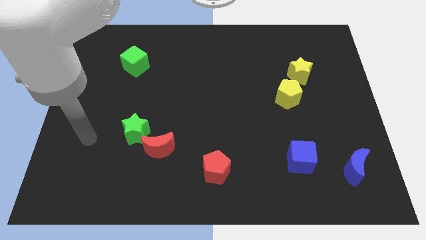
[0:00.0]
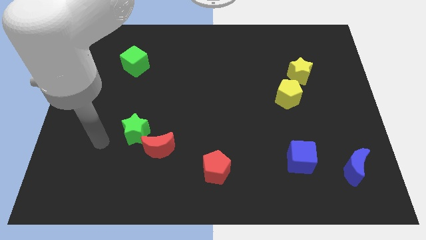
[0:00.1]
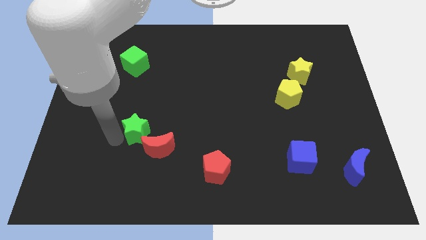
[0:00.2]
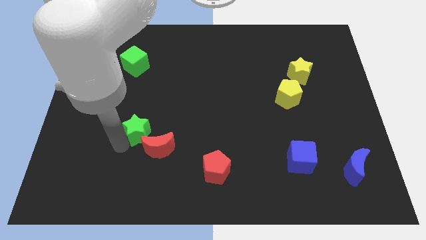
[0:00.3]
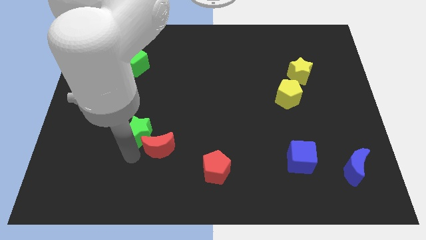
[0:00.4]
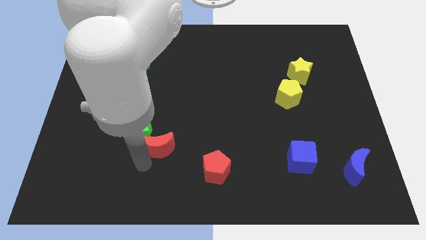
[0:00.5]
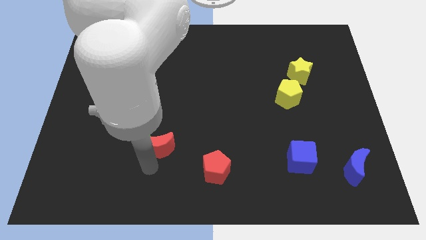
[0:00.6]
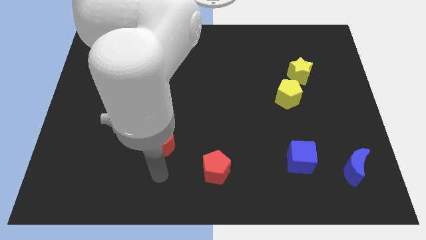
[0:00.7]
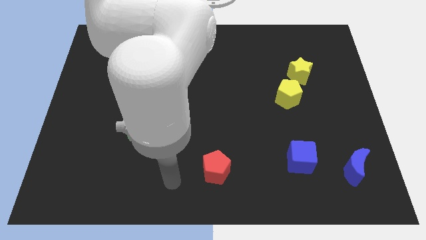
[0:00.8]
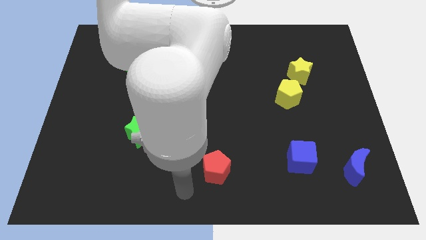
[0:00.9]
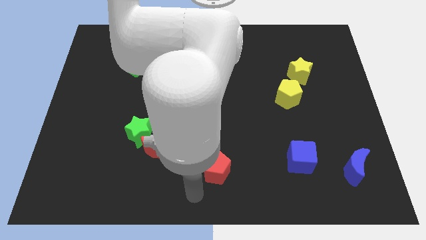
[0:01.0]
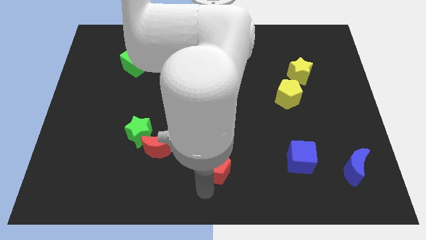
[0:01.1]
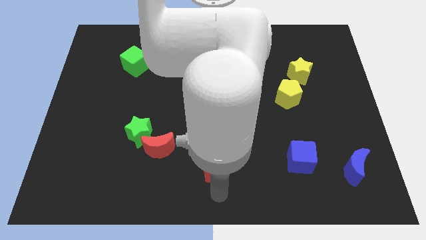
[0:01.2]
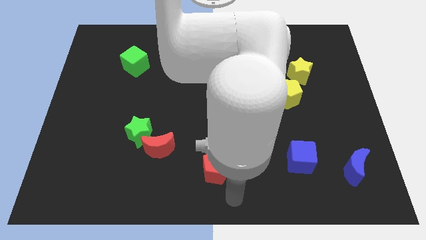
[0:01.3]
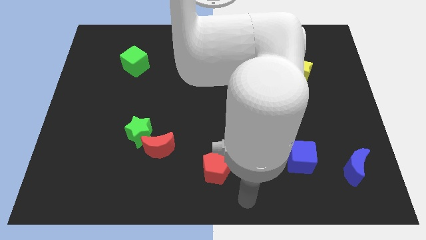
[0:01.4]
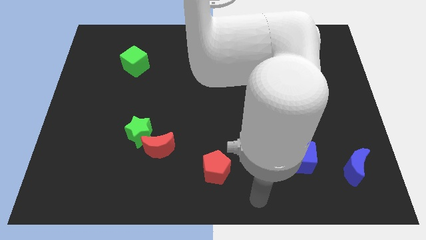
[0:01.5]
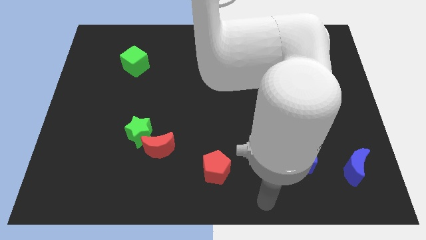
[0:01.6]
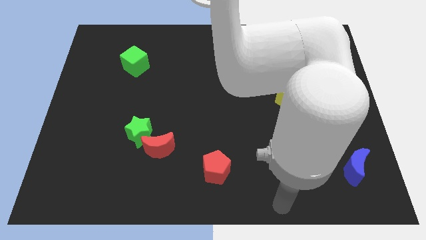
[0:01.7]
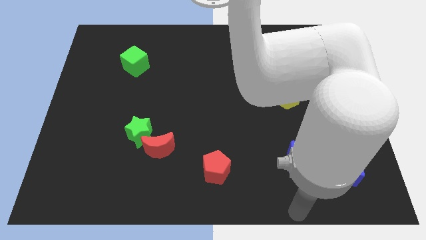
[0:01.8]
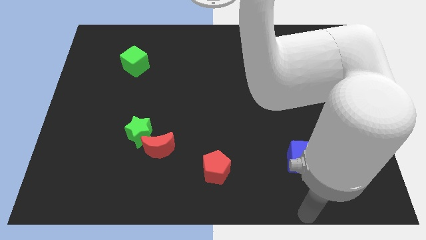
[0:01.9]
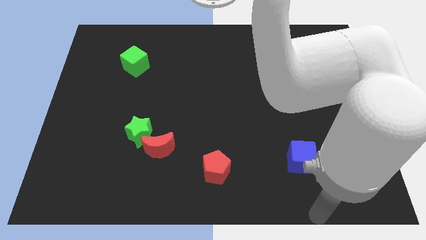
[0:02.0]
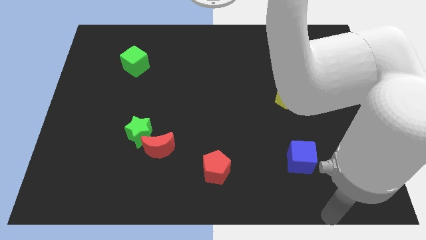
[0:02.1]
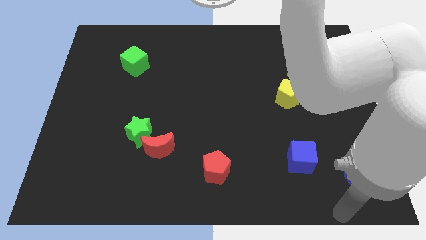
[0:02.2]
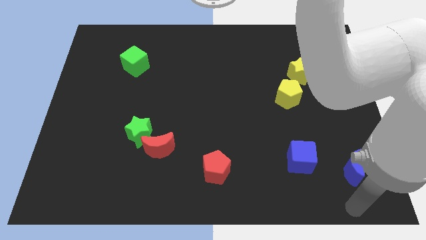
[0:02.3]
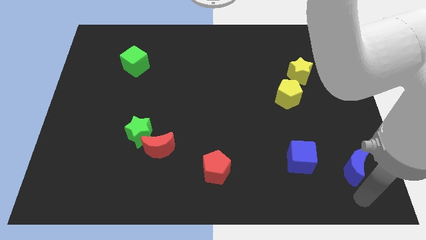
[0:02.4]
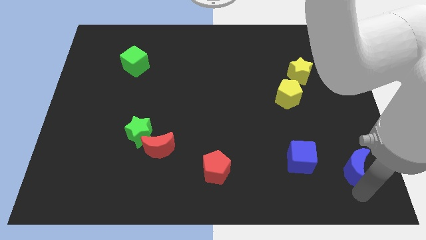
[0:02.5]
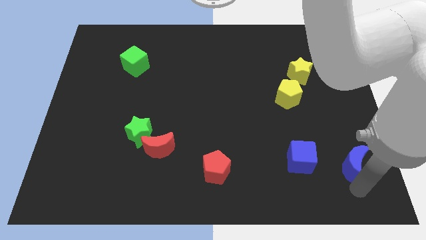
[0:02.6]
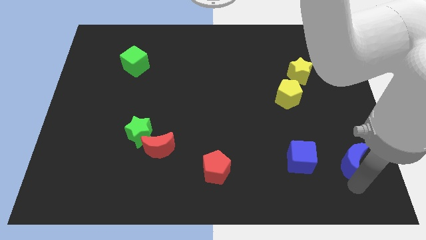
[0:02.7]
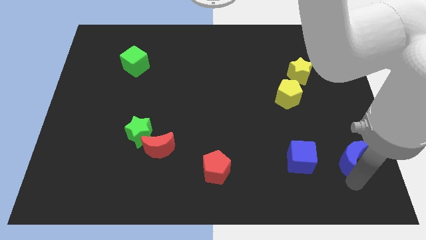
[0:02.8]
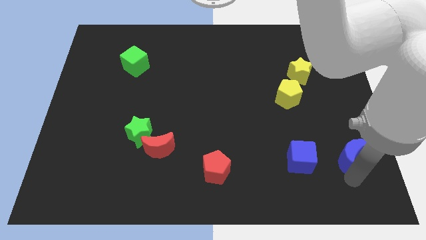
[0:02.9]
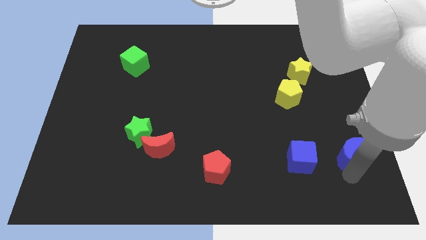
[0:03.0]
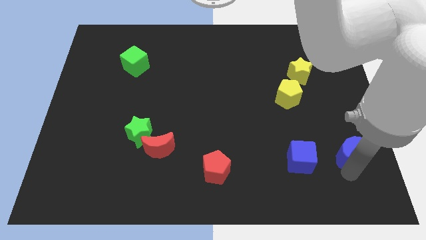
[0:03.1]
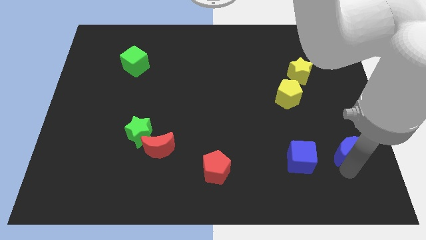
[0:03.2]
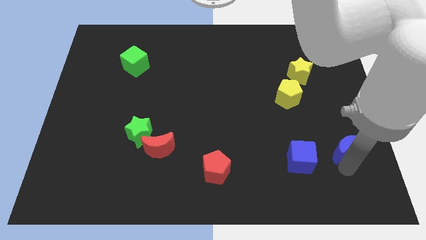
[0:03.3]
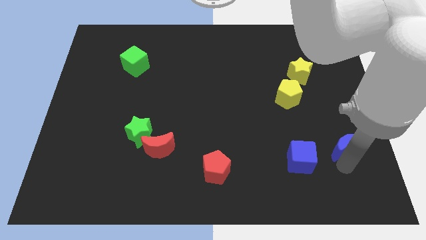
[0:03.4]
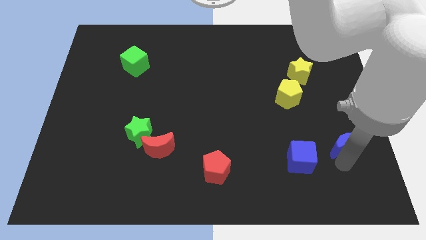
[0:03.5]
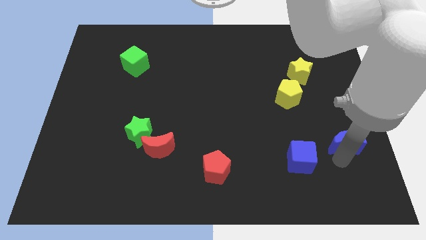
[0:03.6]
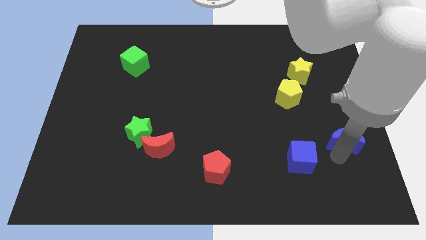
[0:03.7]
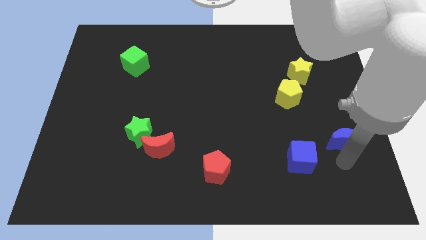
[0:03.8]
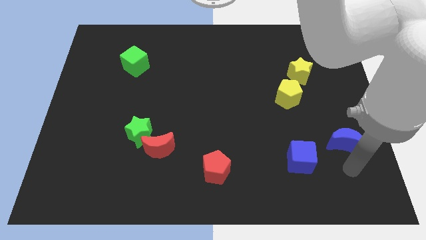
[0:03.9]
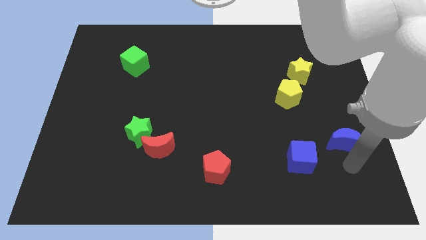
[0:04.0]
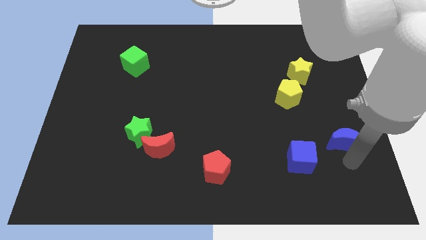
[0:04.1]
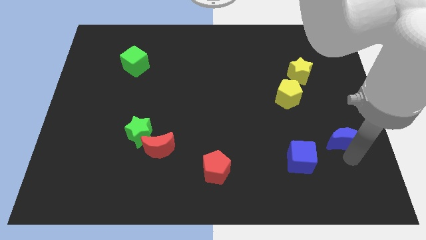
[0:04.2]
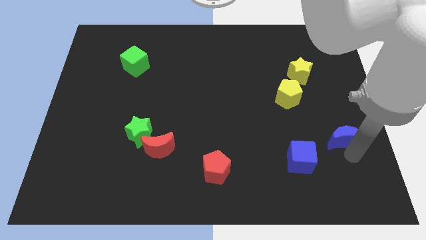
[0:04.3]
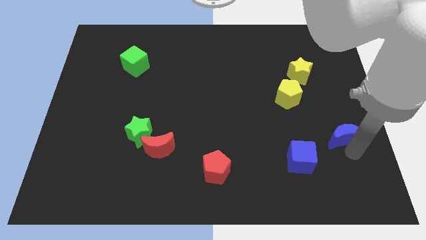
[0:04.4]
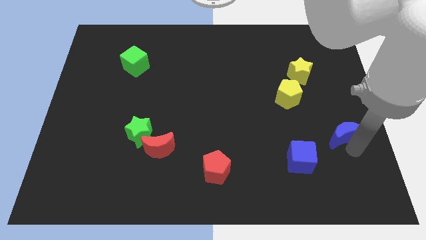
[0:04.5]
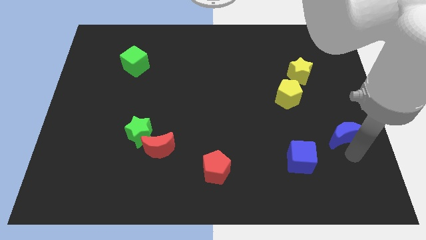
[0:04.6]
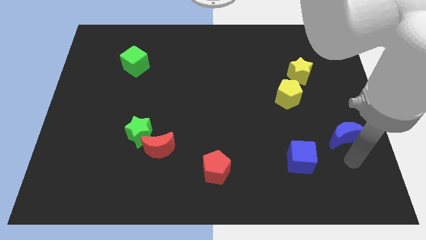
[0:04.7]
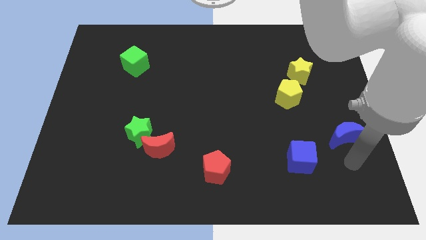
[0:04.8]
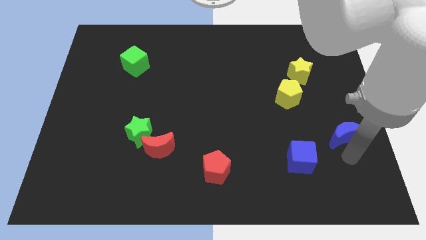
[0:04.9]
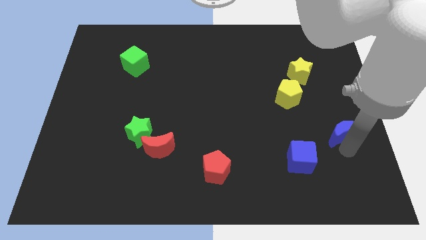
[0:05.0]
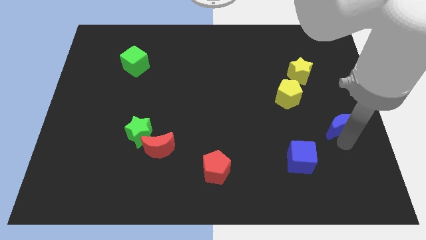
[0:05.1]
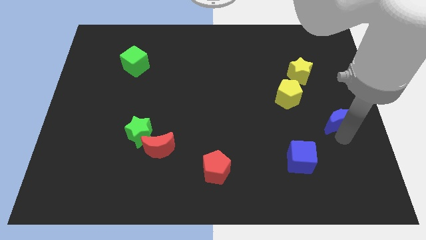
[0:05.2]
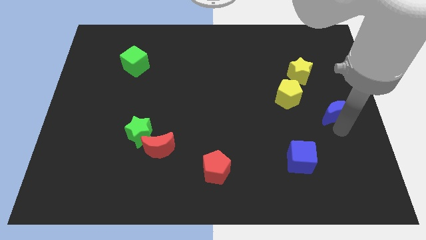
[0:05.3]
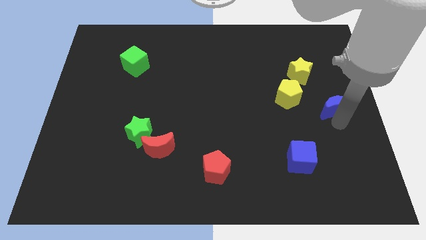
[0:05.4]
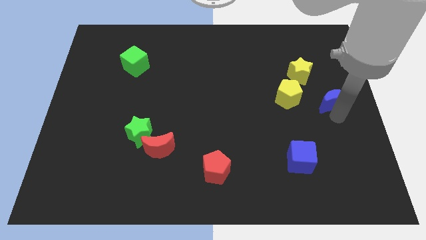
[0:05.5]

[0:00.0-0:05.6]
slide the blue moon to the bottom right of the yellow star

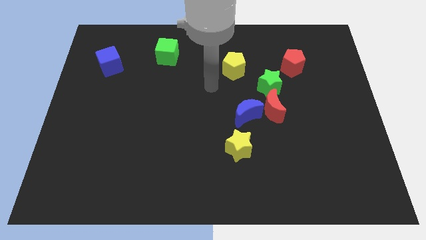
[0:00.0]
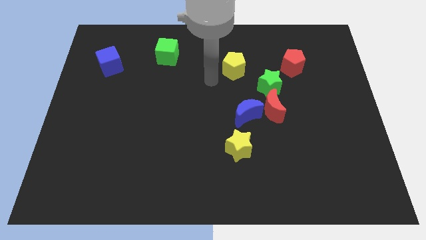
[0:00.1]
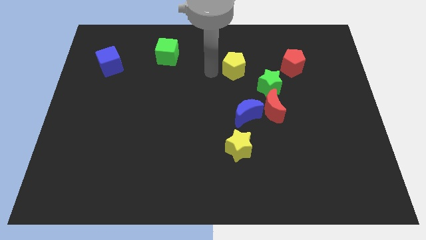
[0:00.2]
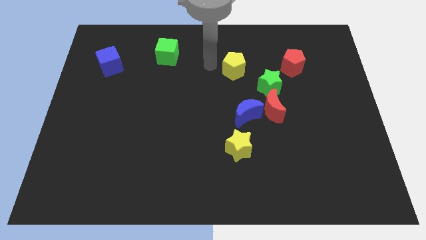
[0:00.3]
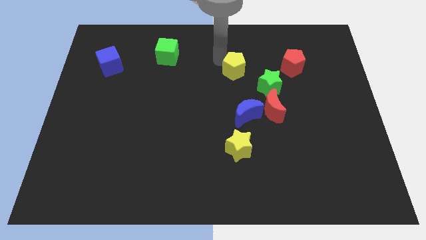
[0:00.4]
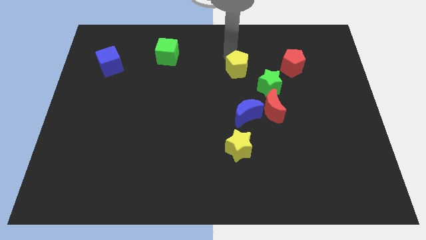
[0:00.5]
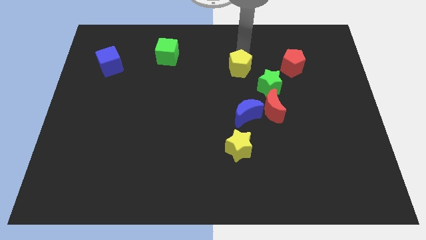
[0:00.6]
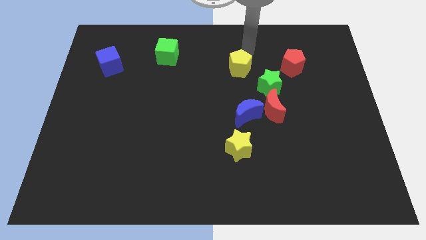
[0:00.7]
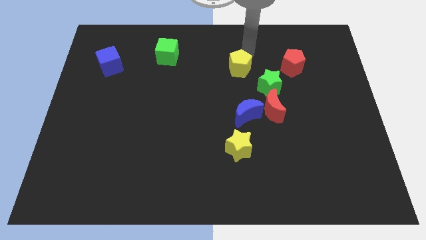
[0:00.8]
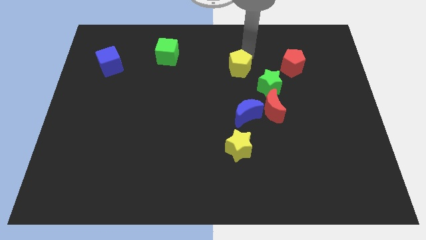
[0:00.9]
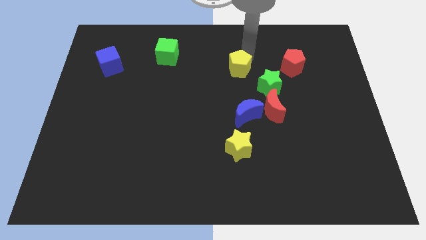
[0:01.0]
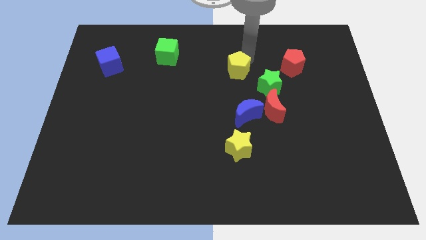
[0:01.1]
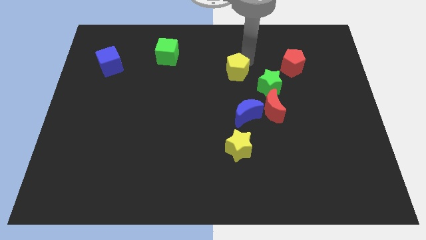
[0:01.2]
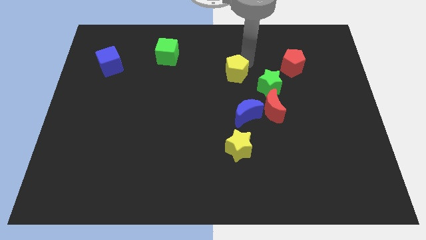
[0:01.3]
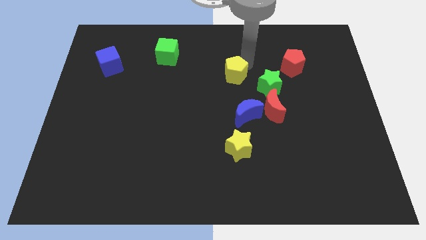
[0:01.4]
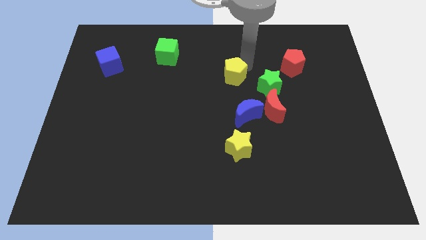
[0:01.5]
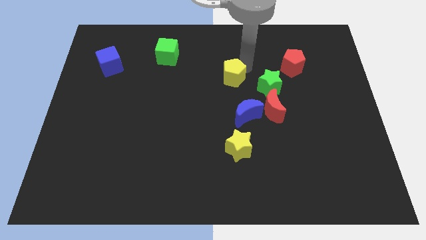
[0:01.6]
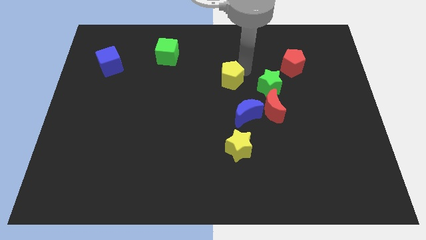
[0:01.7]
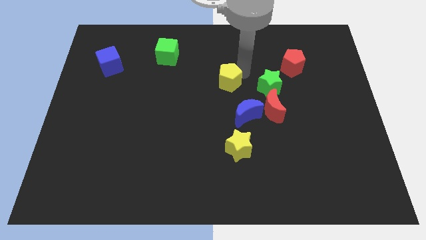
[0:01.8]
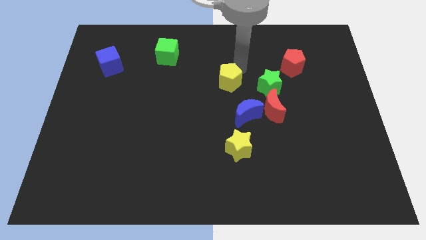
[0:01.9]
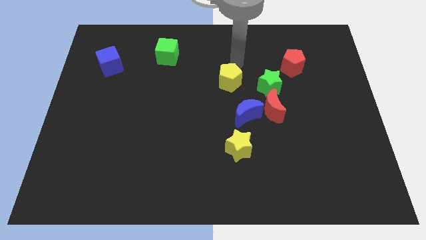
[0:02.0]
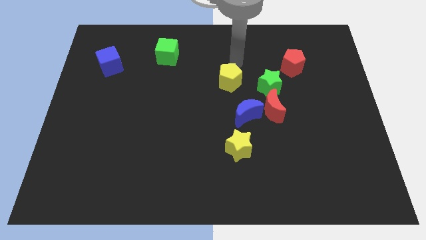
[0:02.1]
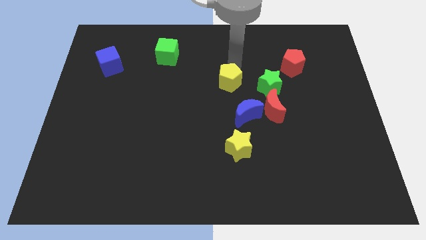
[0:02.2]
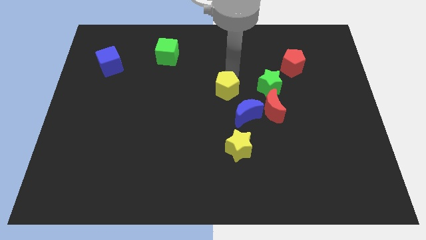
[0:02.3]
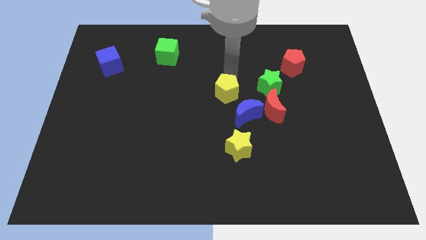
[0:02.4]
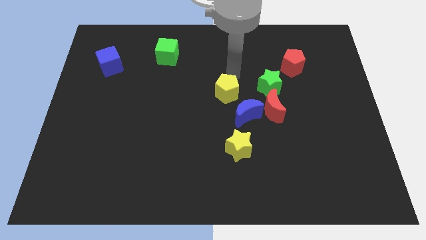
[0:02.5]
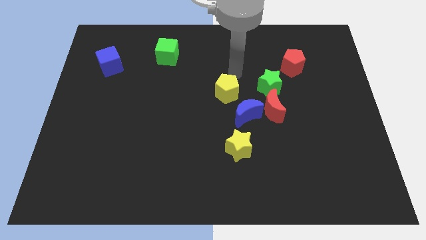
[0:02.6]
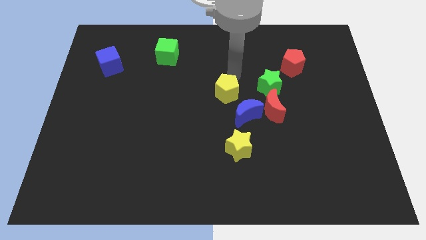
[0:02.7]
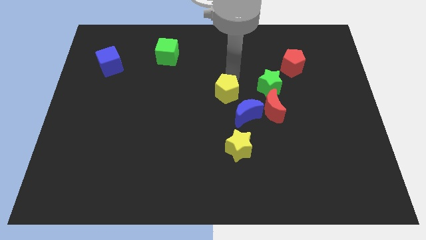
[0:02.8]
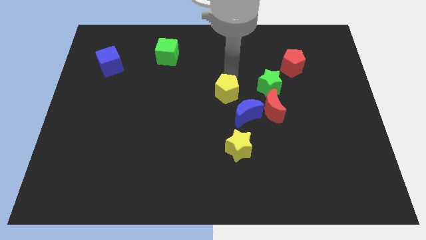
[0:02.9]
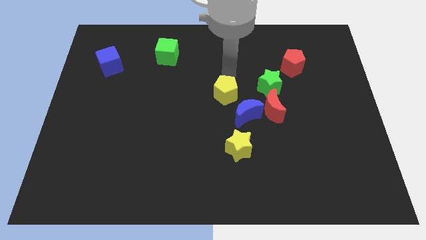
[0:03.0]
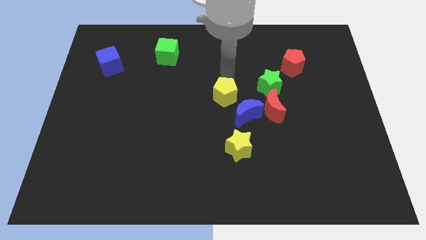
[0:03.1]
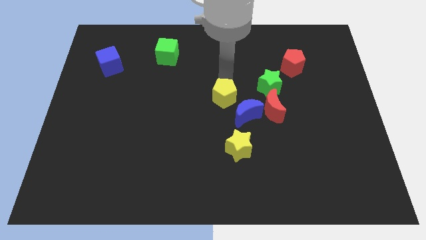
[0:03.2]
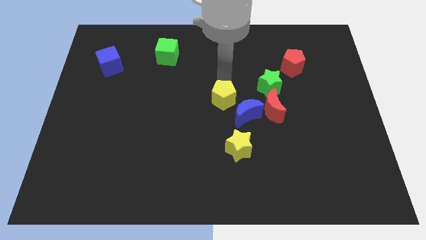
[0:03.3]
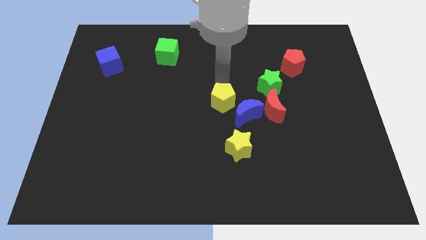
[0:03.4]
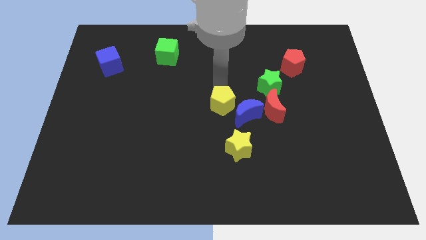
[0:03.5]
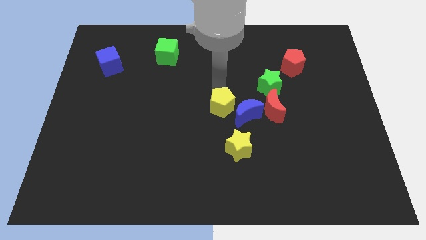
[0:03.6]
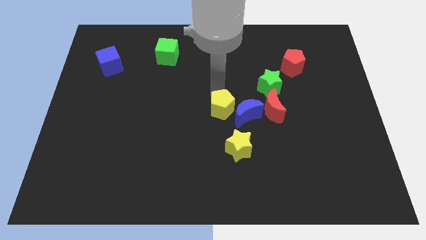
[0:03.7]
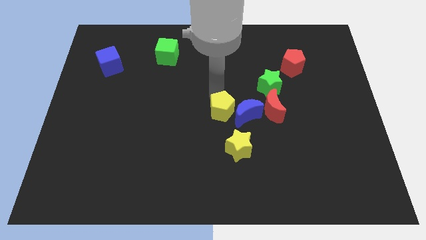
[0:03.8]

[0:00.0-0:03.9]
slide the yellow pentagon diagonally up and to the left of the yellow star
